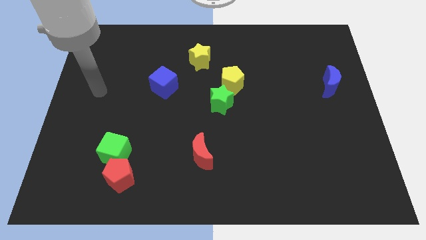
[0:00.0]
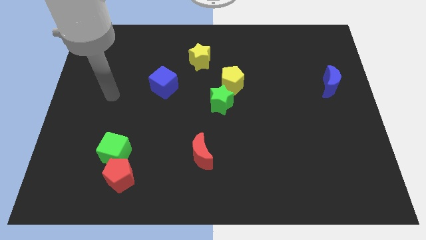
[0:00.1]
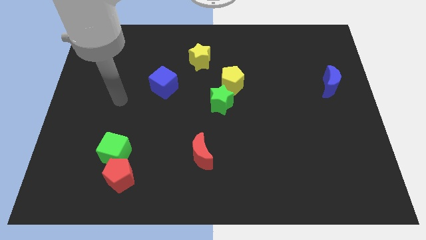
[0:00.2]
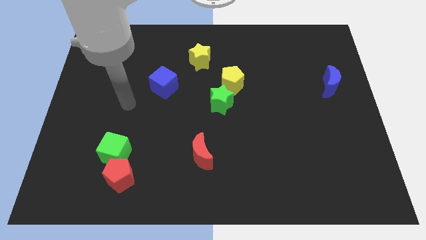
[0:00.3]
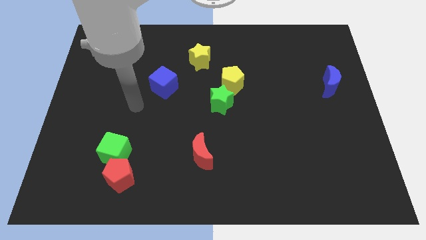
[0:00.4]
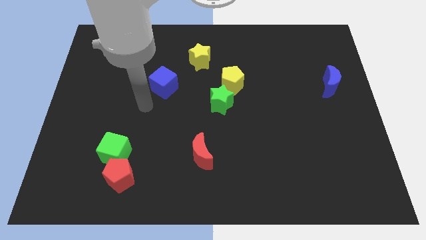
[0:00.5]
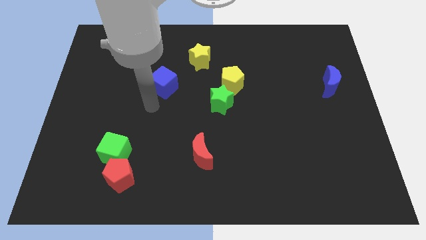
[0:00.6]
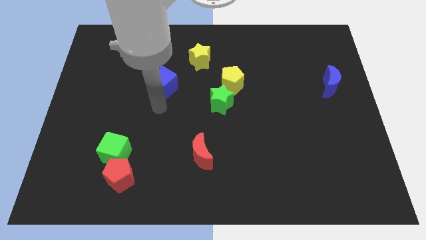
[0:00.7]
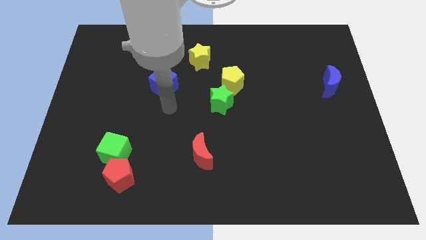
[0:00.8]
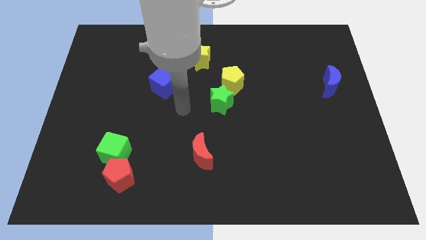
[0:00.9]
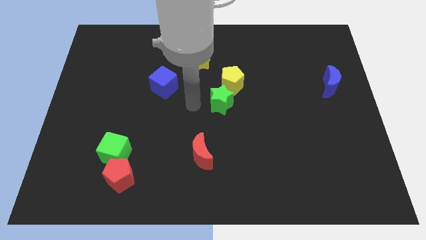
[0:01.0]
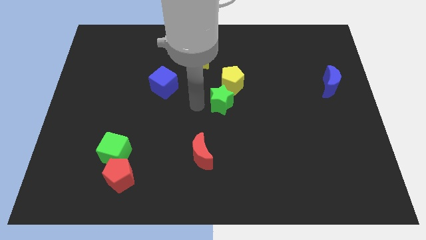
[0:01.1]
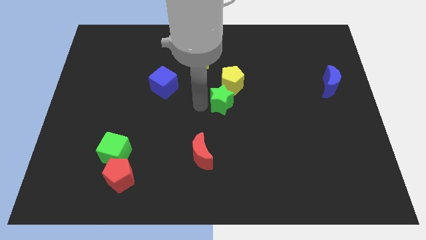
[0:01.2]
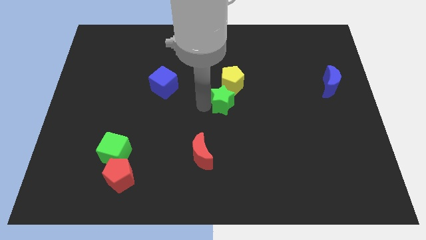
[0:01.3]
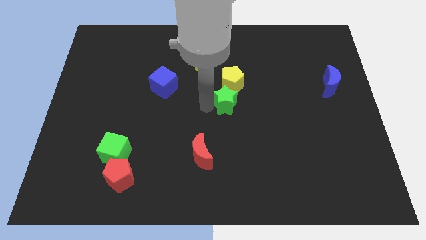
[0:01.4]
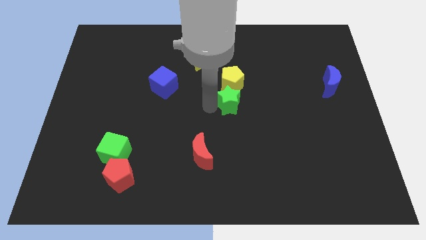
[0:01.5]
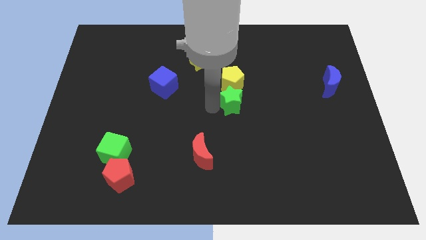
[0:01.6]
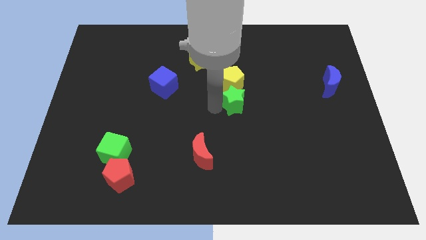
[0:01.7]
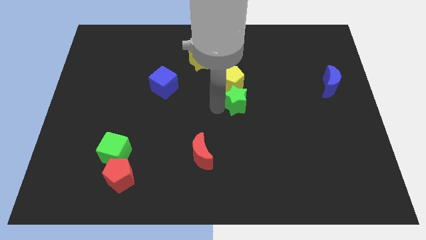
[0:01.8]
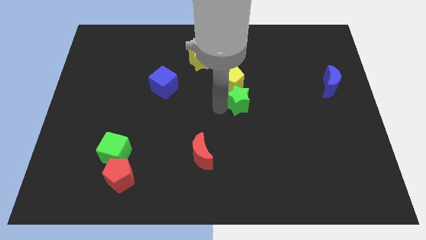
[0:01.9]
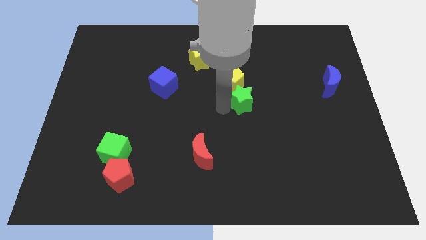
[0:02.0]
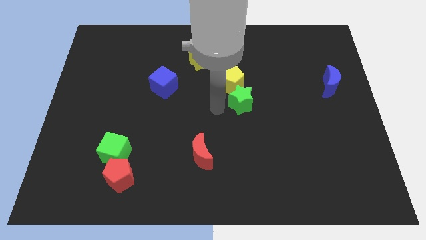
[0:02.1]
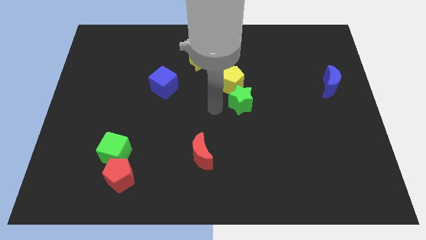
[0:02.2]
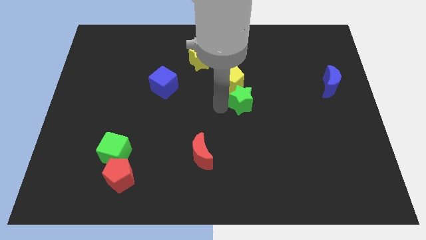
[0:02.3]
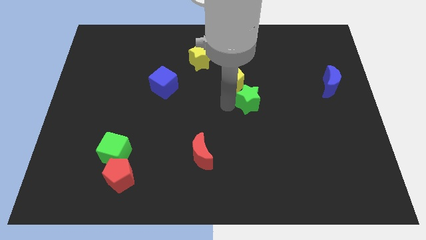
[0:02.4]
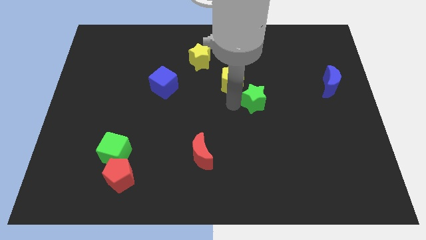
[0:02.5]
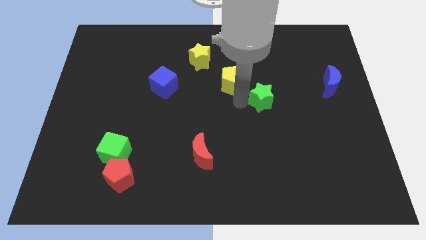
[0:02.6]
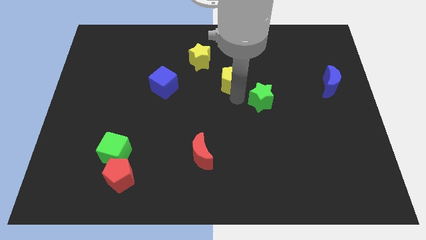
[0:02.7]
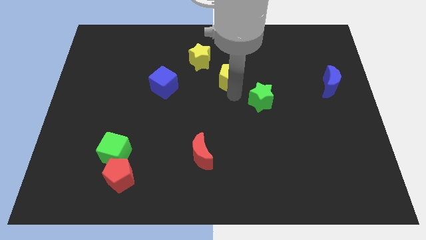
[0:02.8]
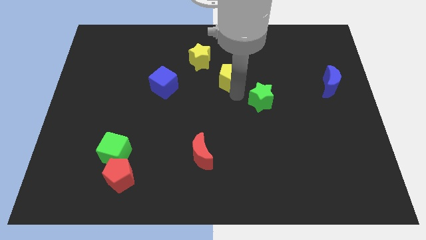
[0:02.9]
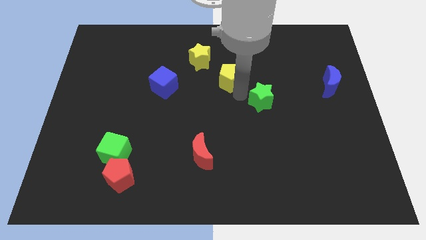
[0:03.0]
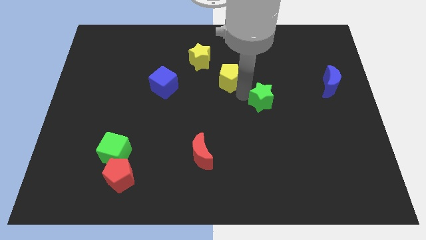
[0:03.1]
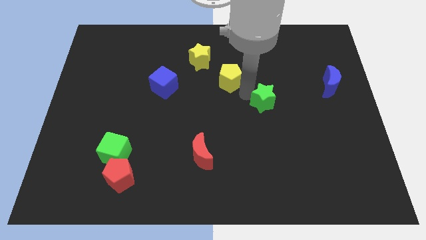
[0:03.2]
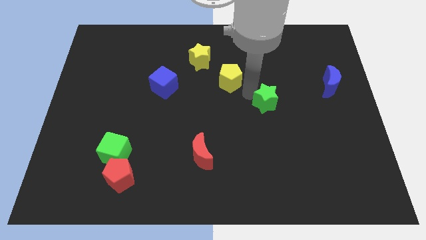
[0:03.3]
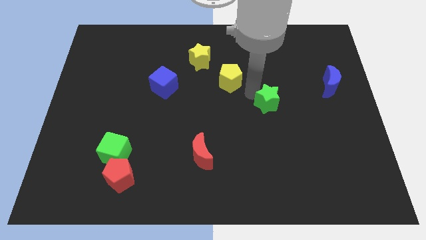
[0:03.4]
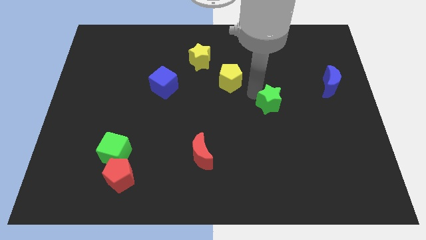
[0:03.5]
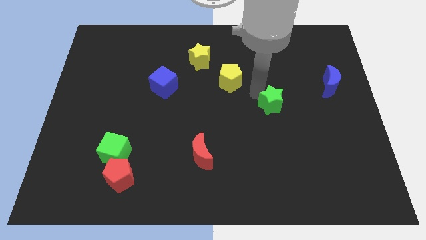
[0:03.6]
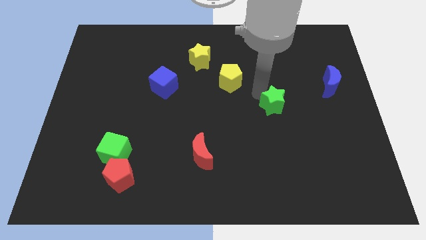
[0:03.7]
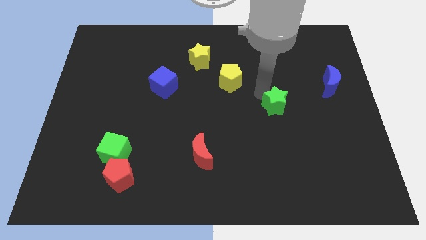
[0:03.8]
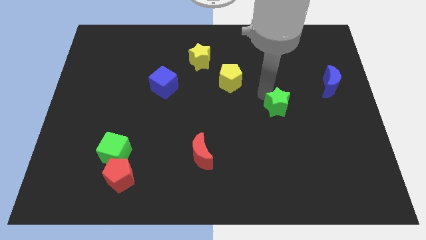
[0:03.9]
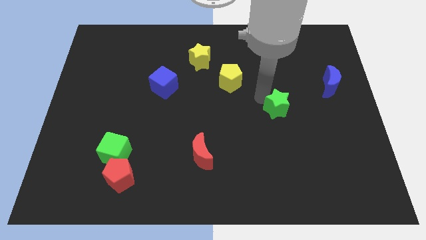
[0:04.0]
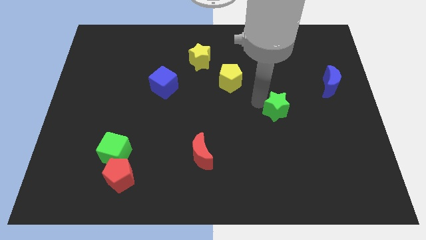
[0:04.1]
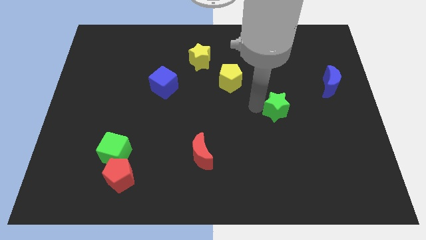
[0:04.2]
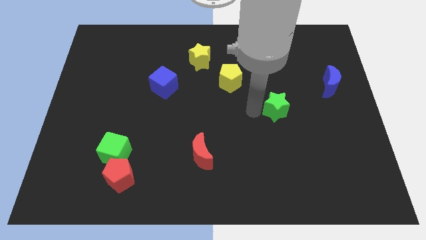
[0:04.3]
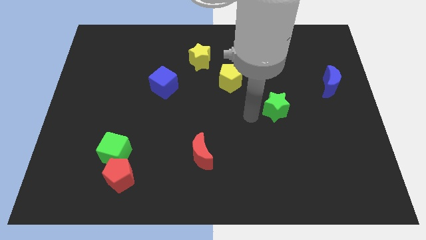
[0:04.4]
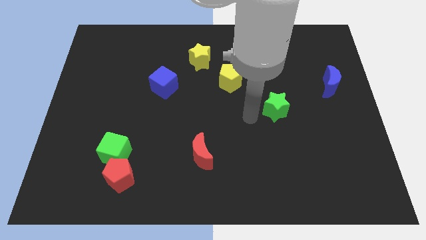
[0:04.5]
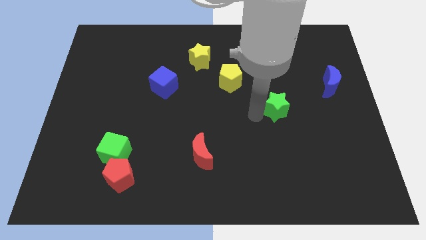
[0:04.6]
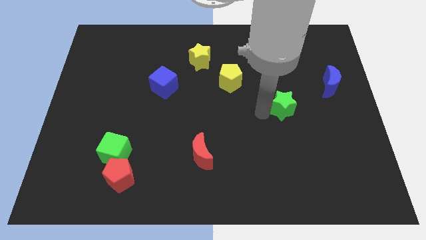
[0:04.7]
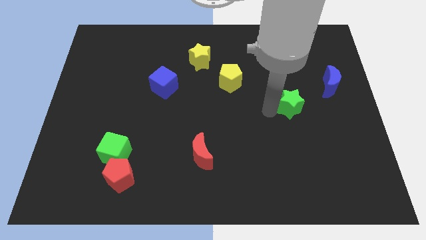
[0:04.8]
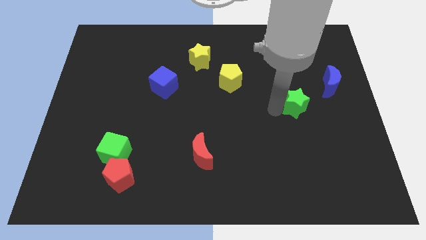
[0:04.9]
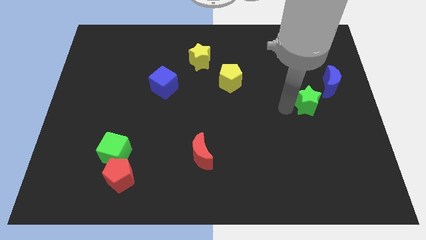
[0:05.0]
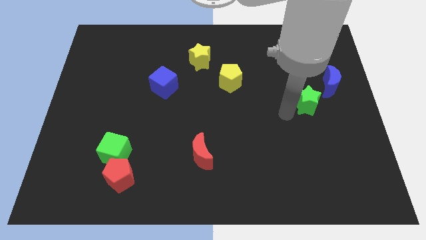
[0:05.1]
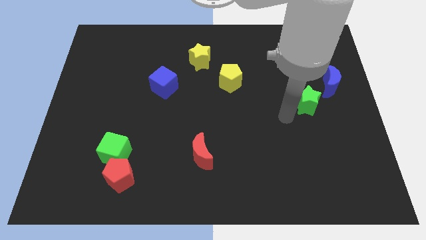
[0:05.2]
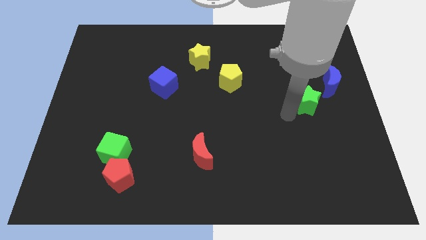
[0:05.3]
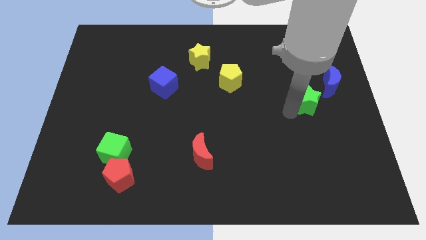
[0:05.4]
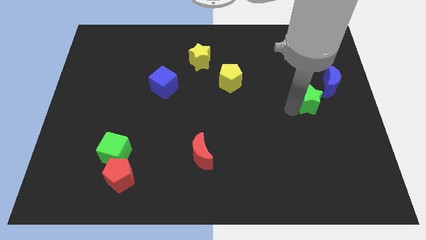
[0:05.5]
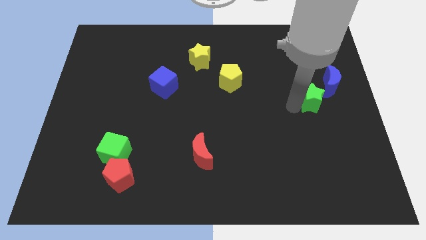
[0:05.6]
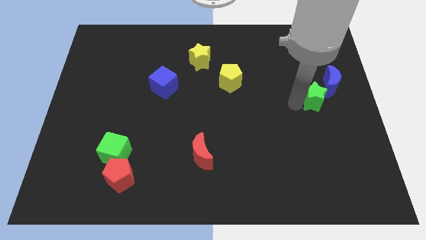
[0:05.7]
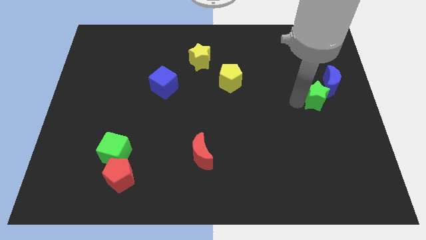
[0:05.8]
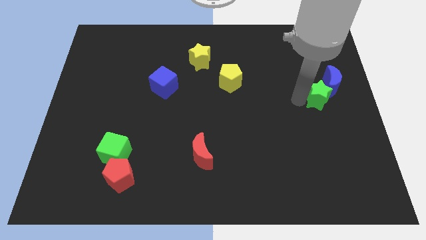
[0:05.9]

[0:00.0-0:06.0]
put the green star towards the blue moon

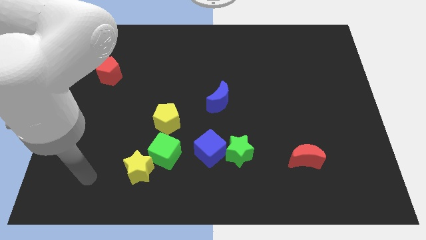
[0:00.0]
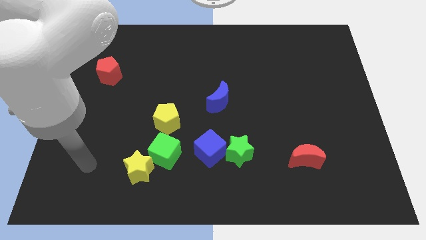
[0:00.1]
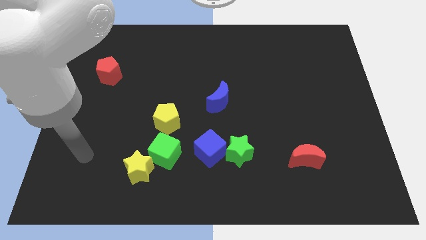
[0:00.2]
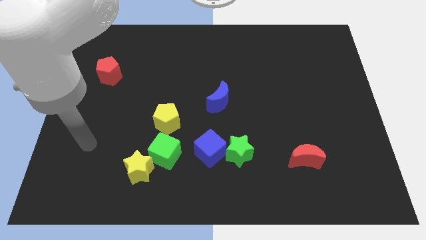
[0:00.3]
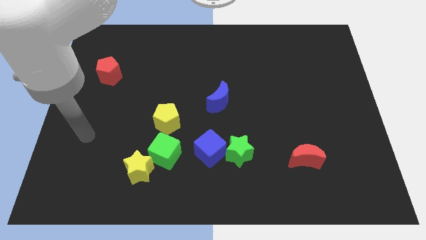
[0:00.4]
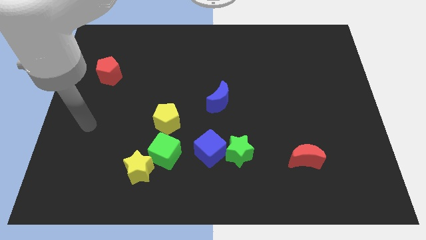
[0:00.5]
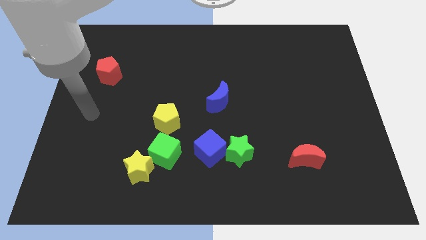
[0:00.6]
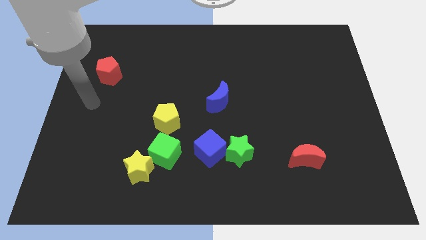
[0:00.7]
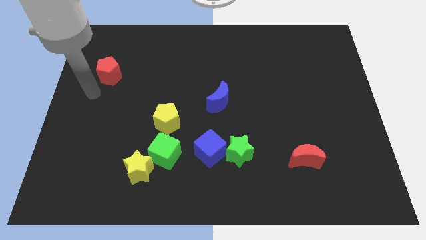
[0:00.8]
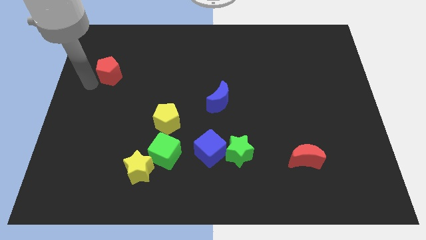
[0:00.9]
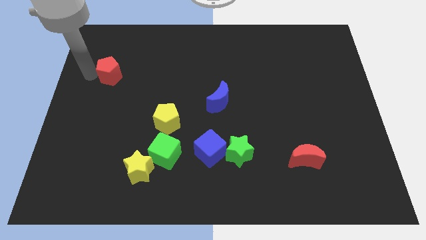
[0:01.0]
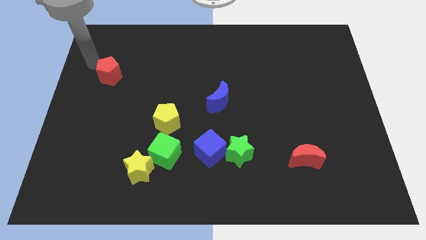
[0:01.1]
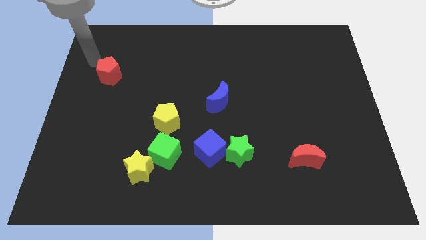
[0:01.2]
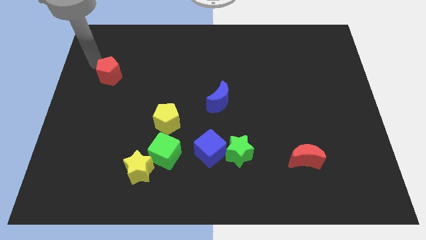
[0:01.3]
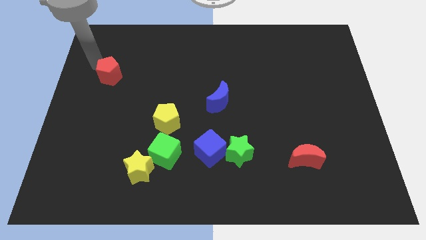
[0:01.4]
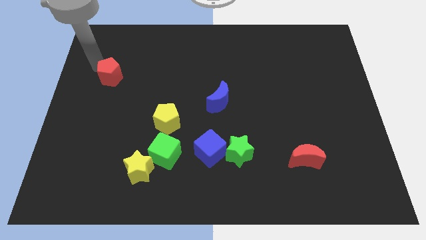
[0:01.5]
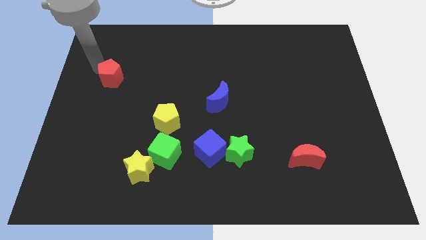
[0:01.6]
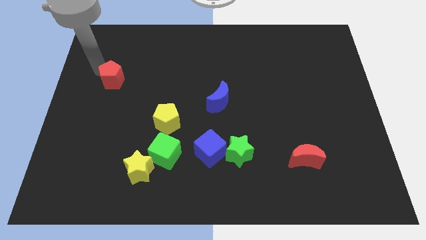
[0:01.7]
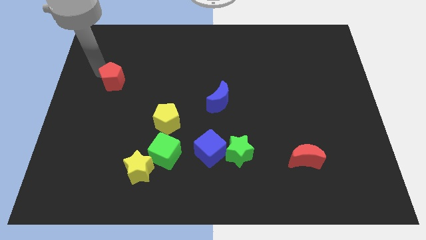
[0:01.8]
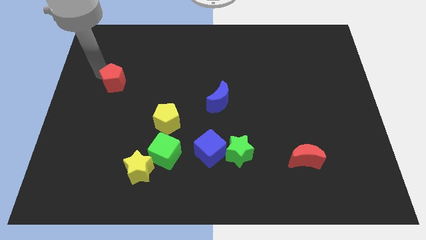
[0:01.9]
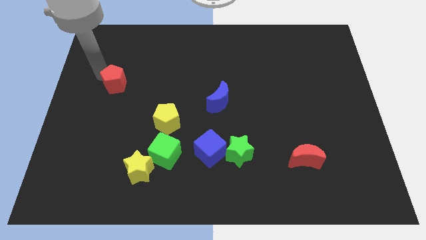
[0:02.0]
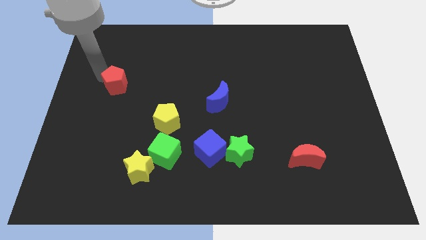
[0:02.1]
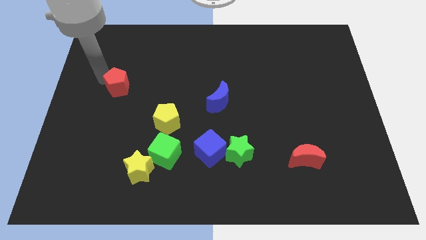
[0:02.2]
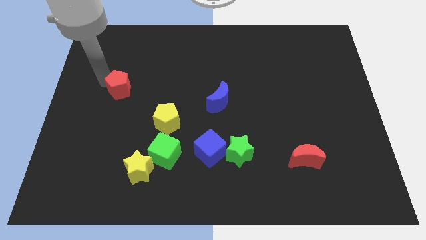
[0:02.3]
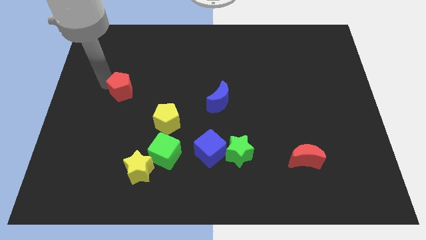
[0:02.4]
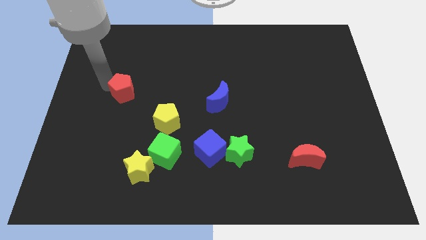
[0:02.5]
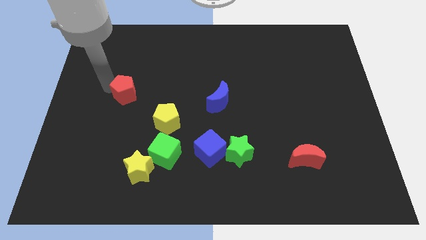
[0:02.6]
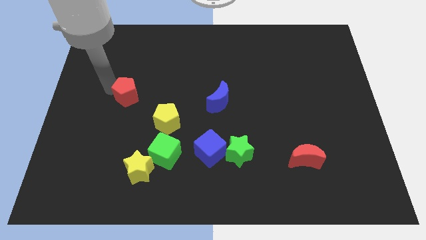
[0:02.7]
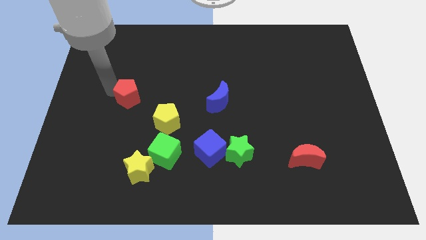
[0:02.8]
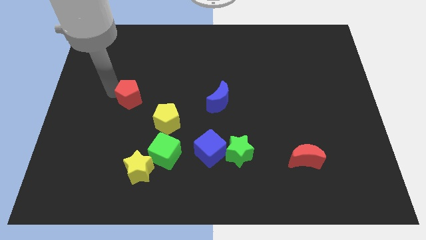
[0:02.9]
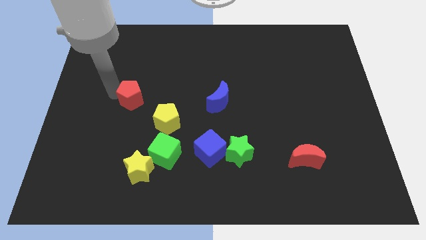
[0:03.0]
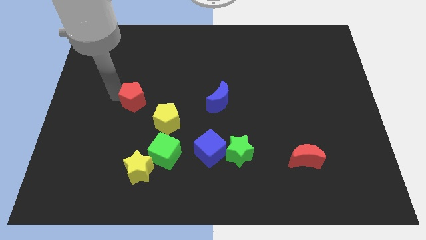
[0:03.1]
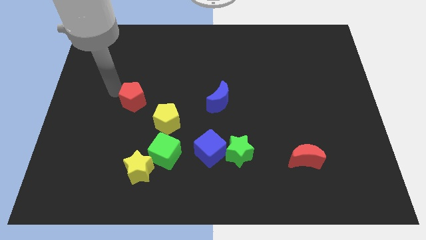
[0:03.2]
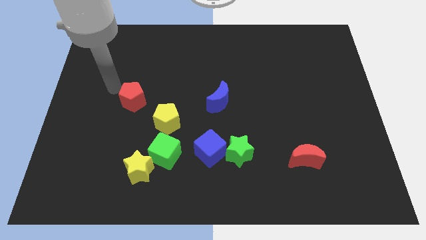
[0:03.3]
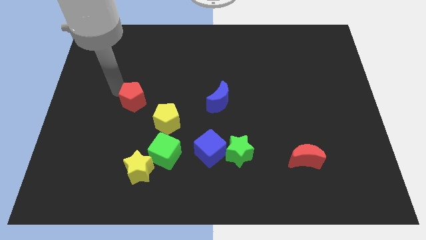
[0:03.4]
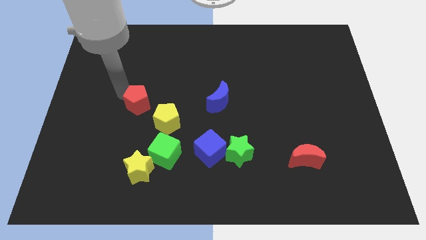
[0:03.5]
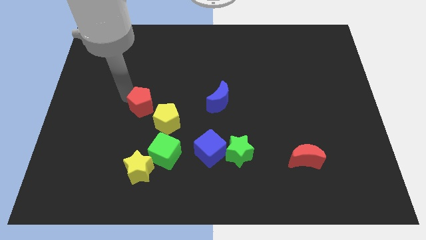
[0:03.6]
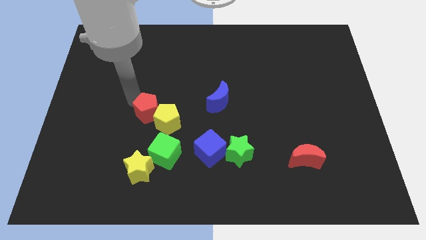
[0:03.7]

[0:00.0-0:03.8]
move the red pentagon next to the yellow pentagon
